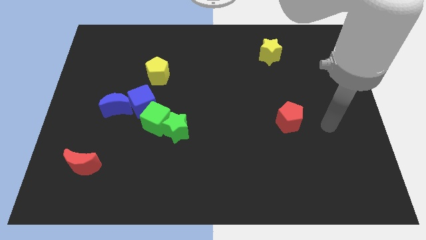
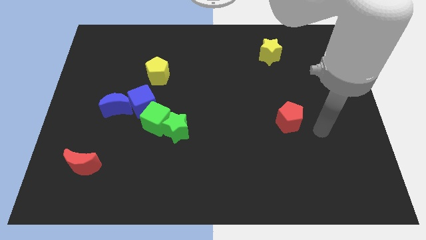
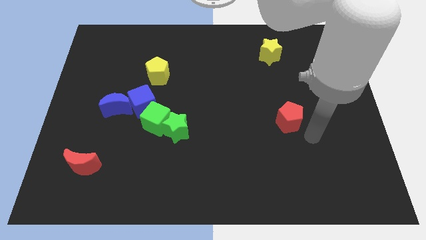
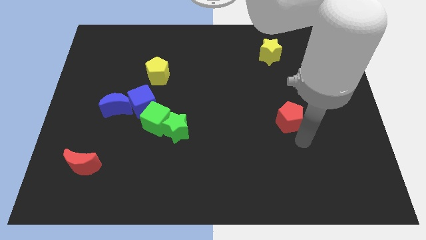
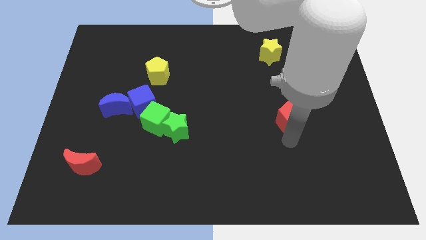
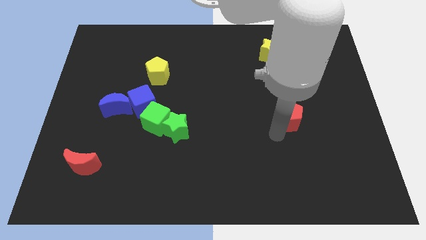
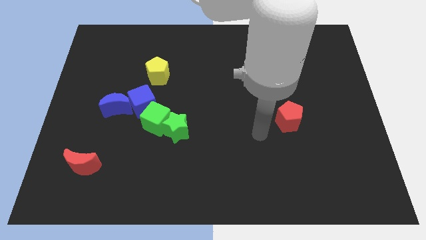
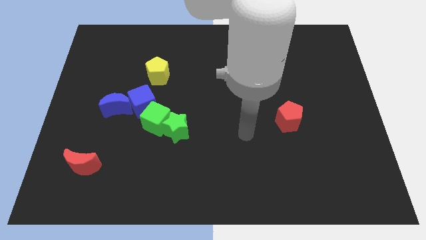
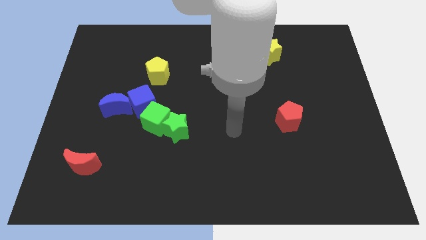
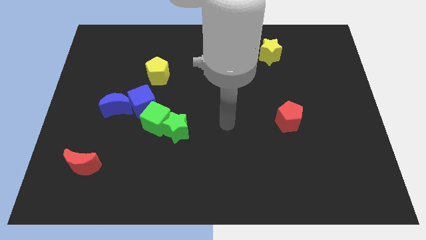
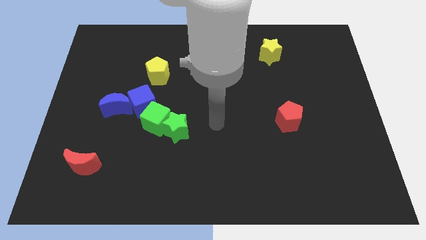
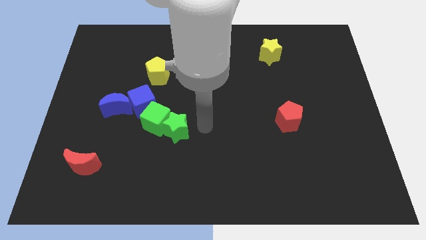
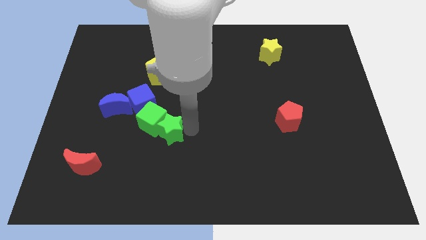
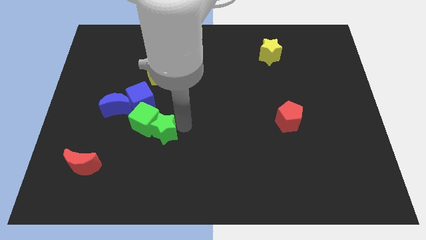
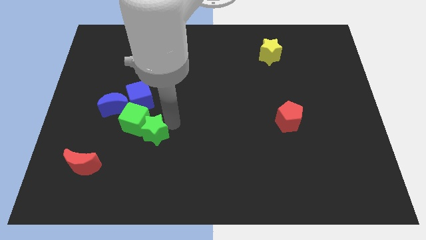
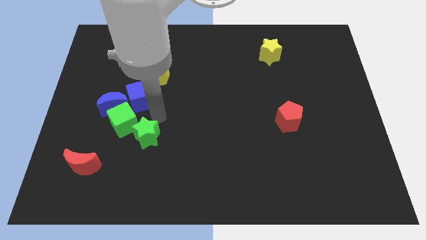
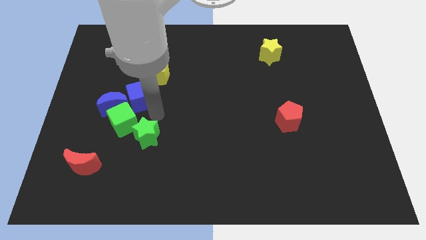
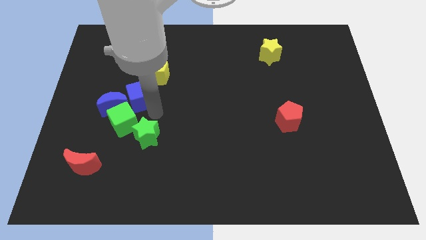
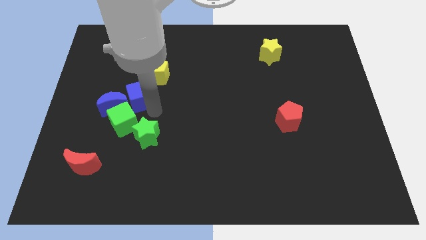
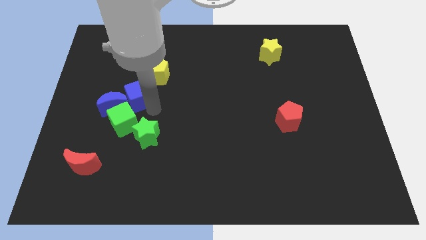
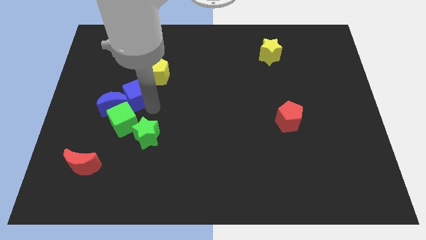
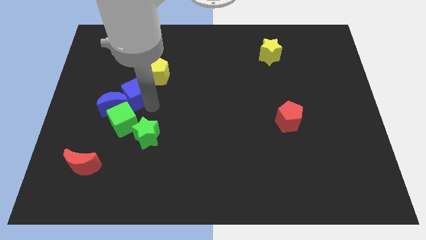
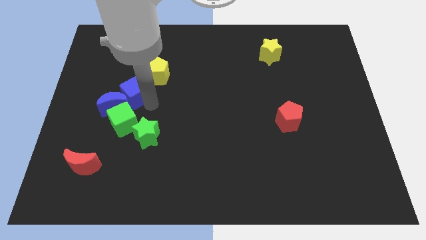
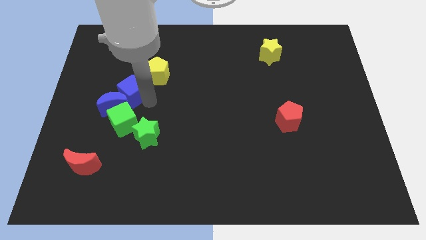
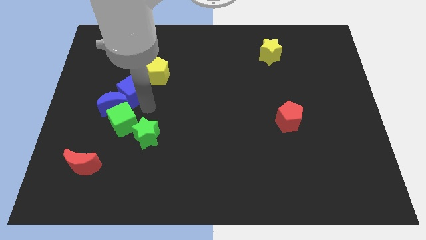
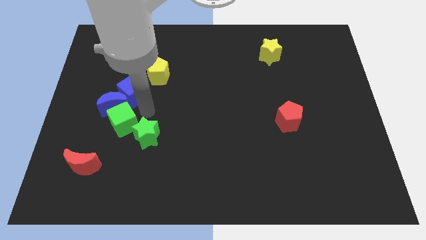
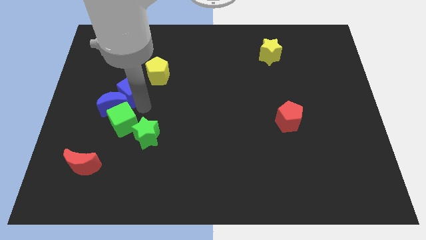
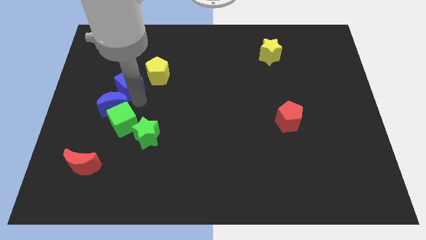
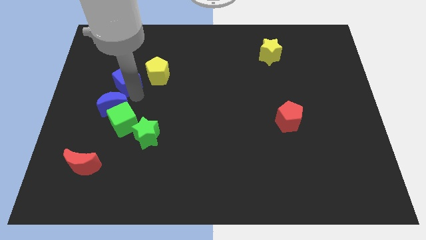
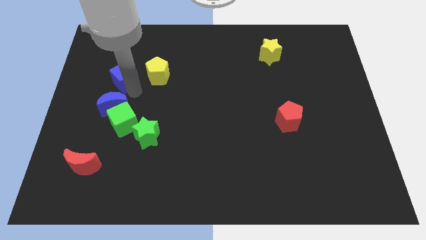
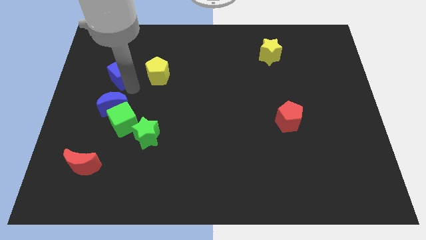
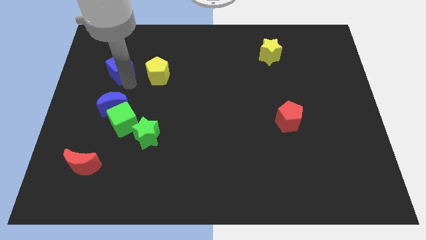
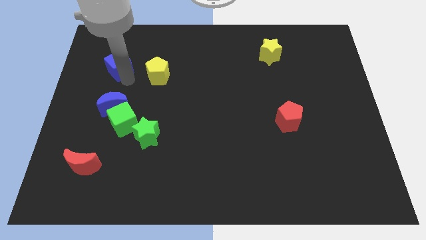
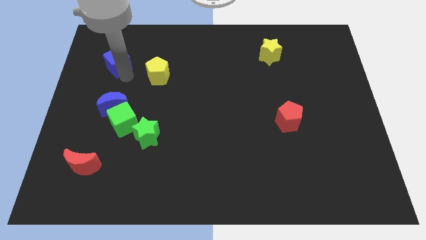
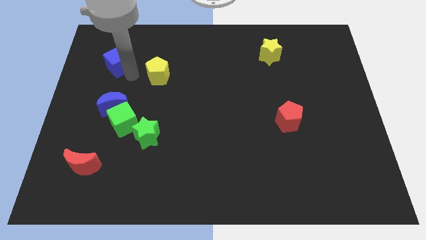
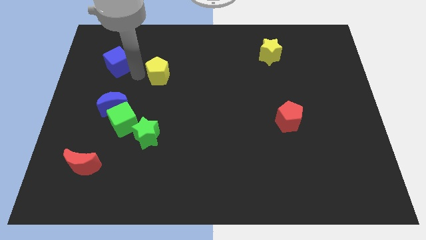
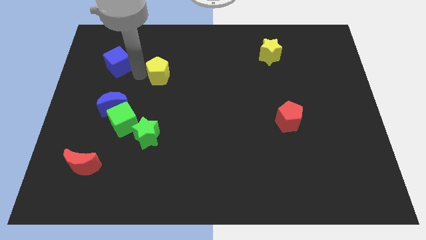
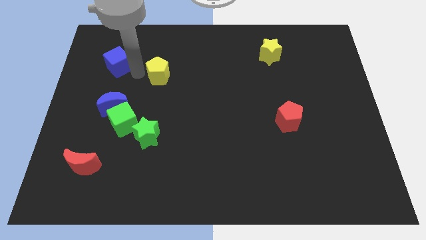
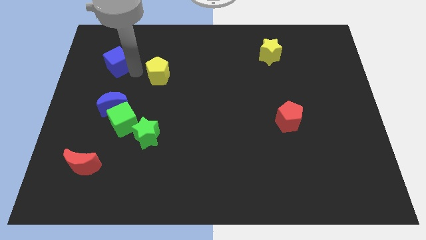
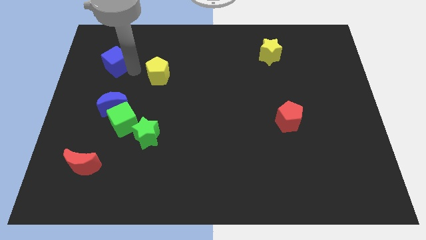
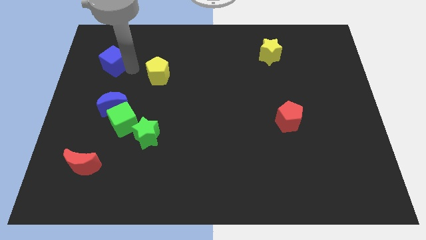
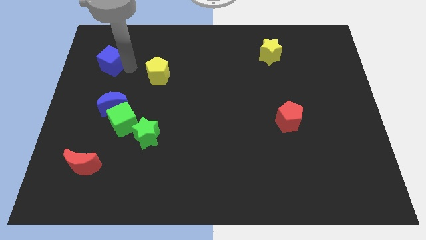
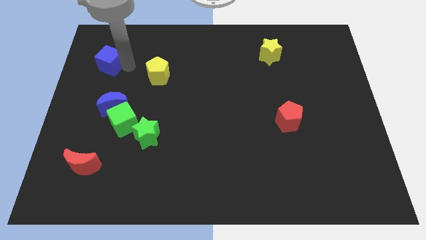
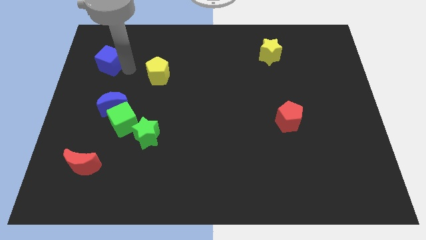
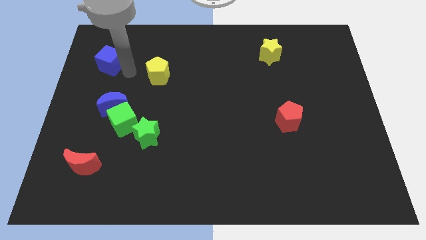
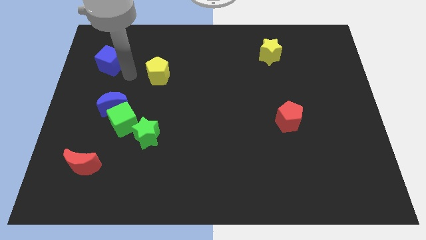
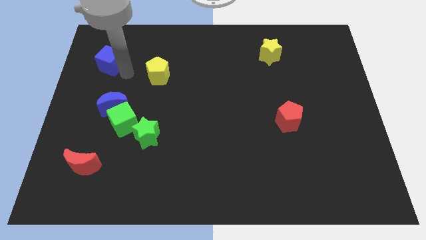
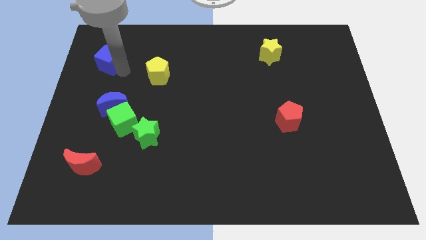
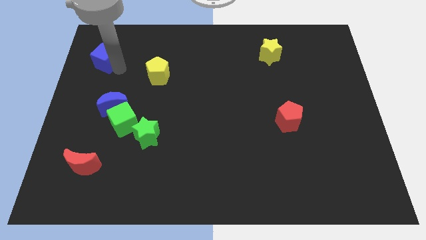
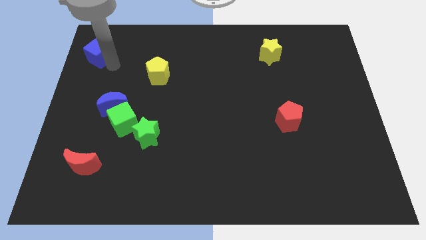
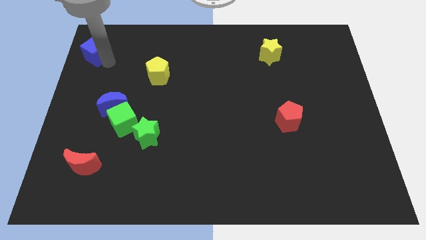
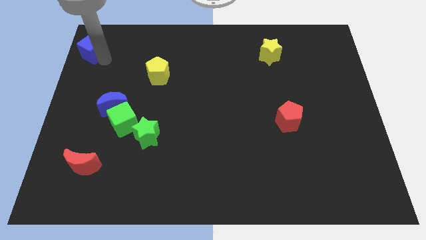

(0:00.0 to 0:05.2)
move the blue cube to the top left

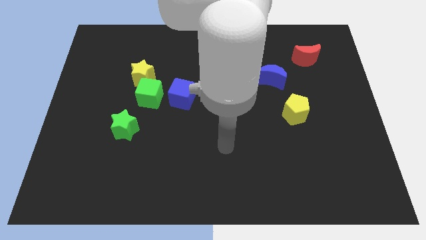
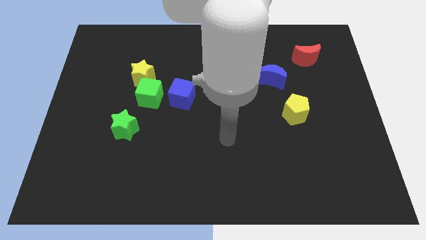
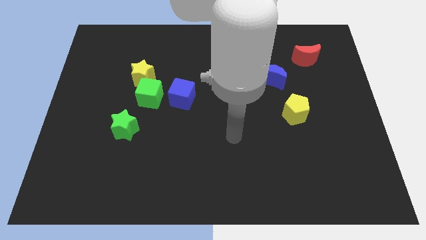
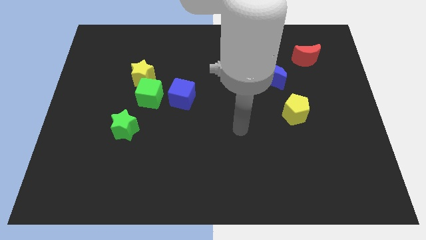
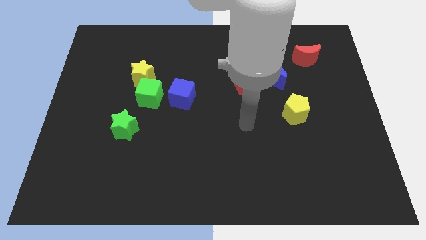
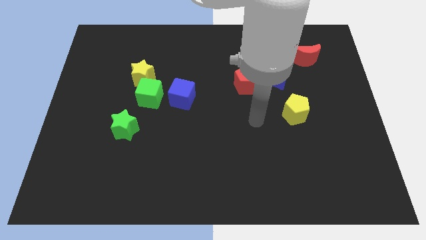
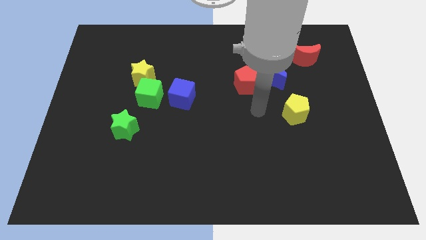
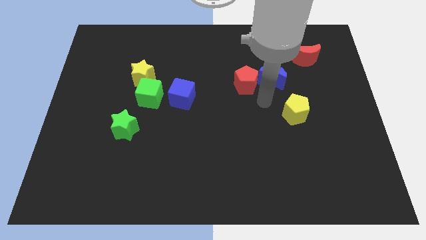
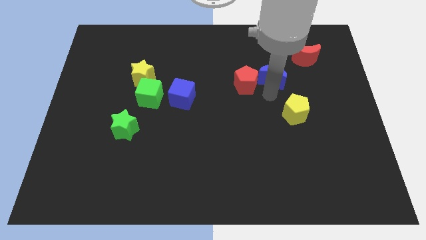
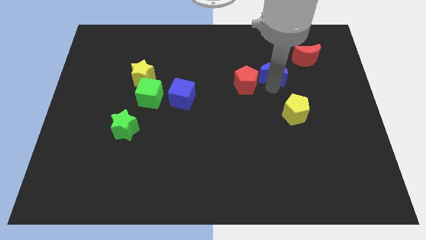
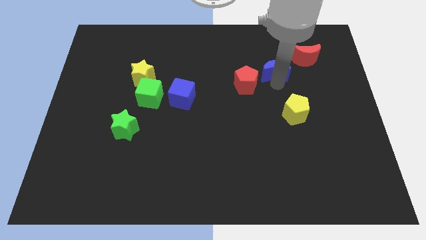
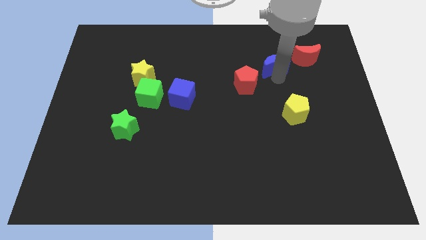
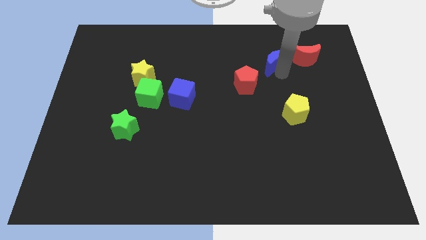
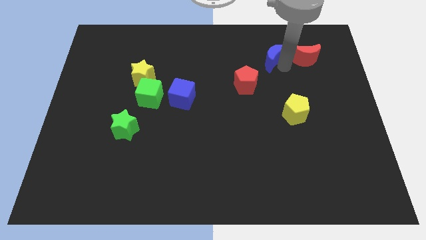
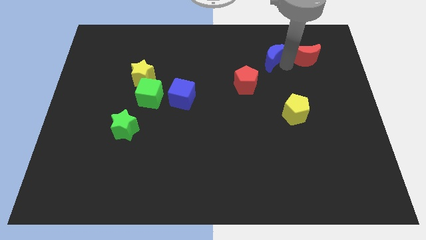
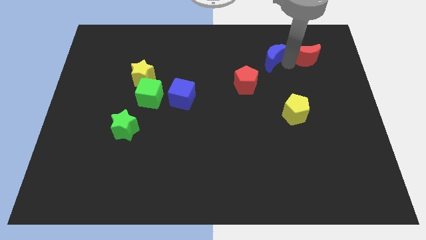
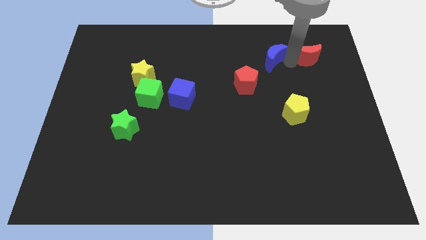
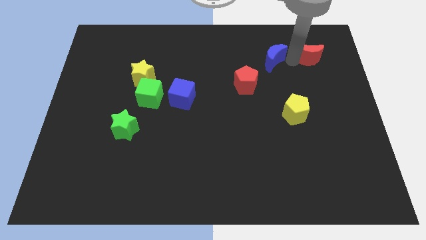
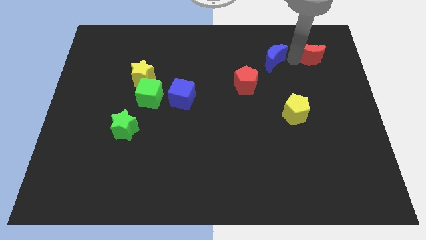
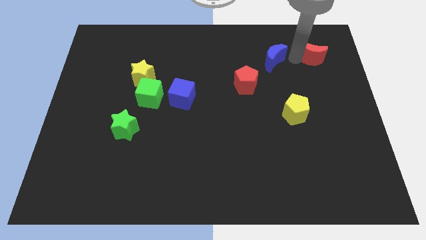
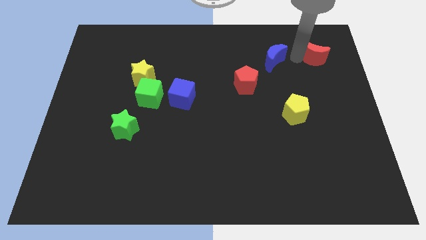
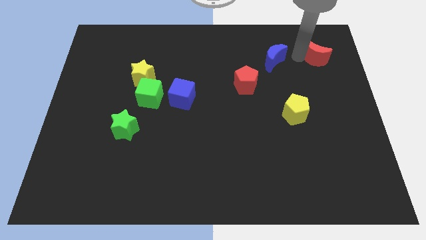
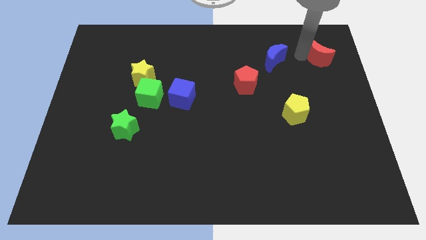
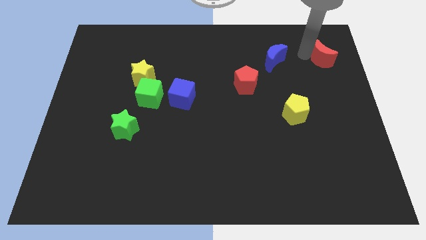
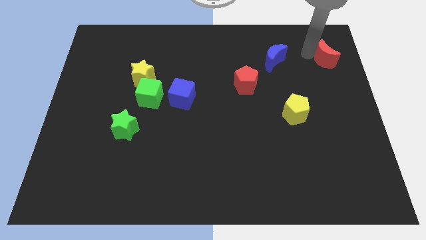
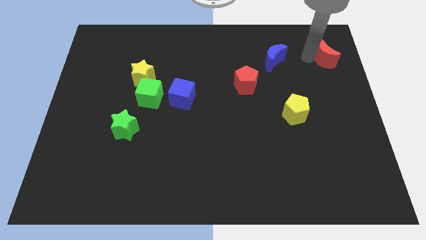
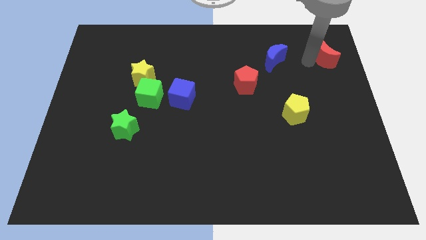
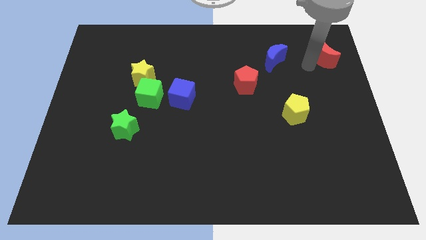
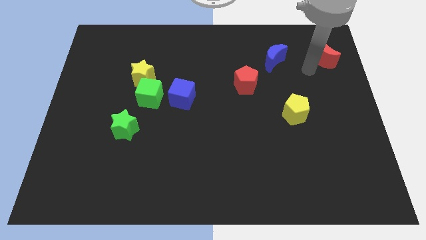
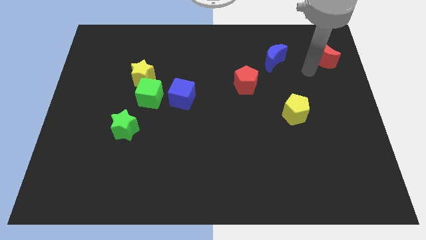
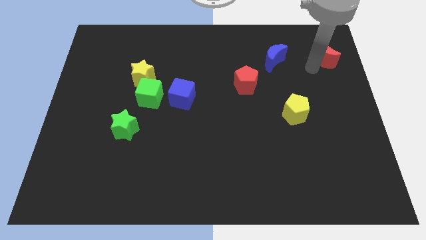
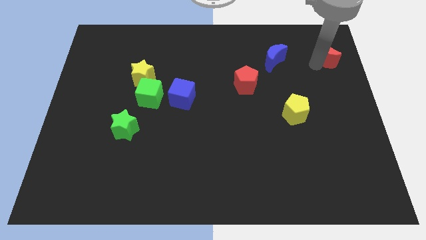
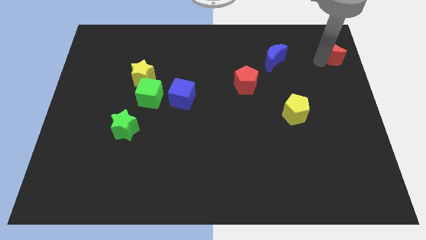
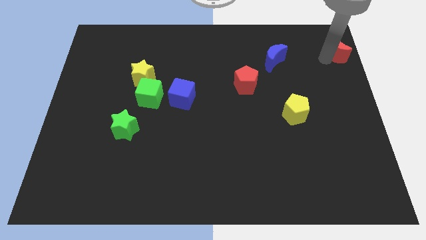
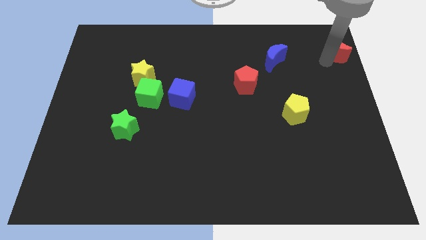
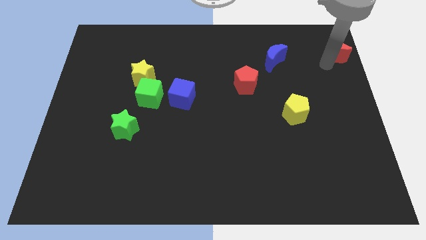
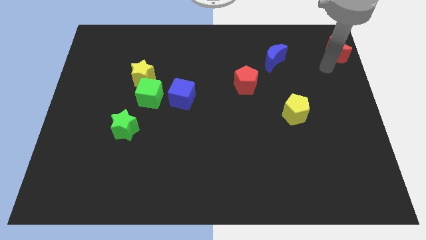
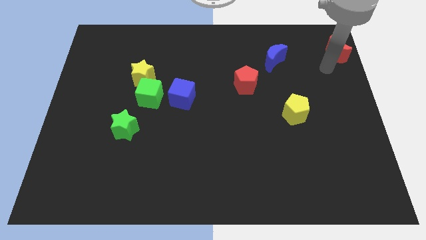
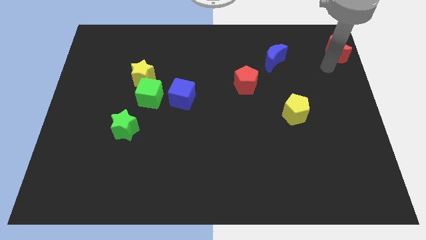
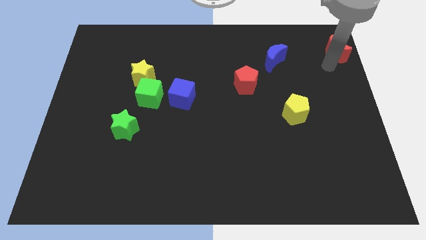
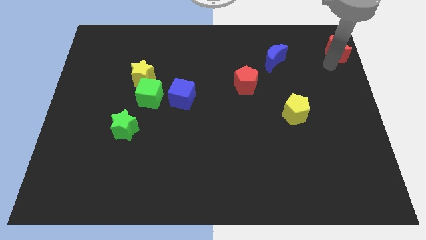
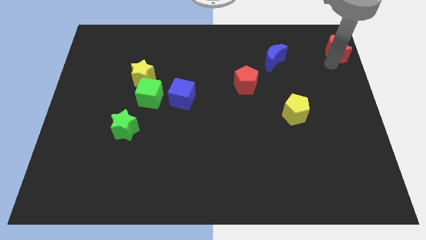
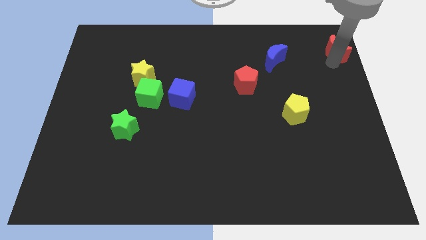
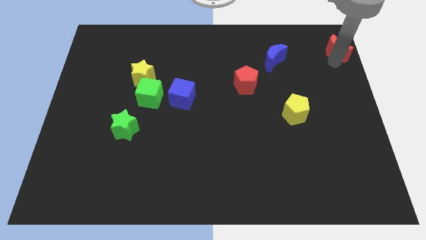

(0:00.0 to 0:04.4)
put the red moon to the top right corner
